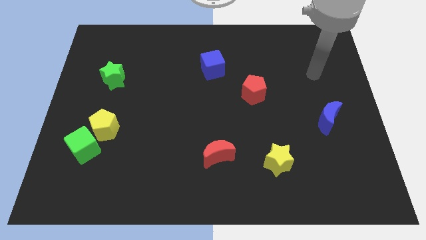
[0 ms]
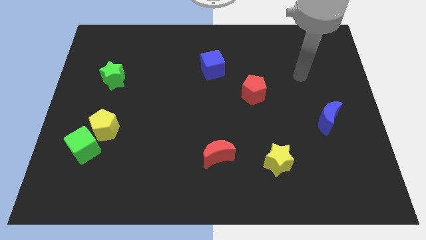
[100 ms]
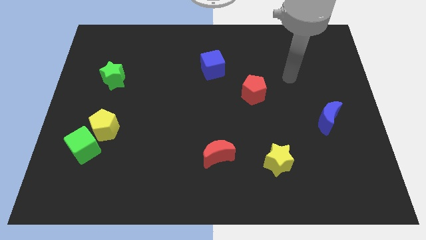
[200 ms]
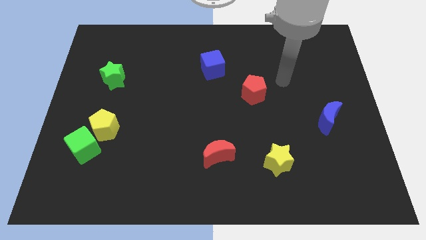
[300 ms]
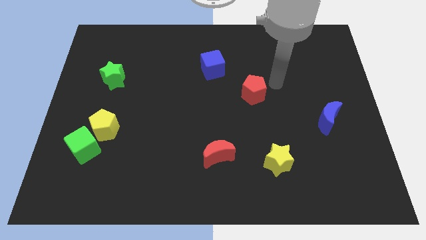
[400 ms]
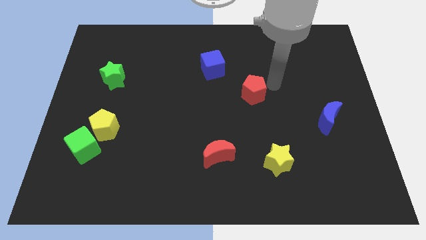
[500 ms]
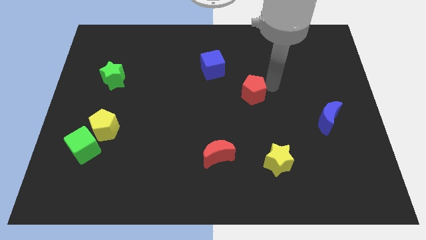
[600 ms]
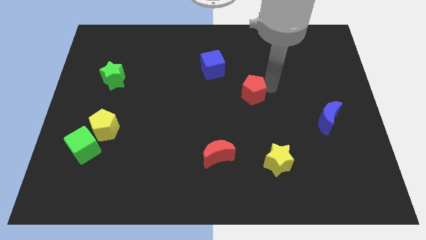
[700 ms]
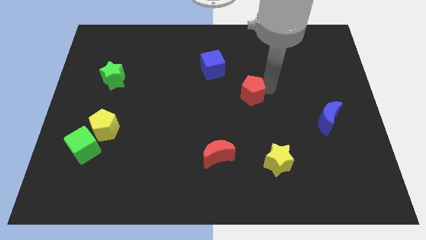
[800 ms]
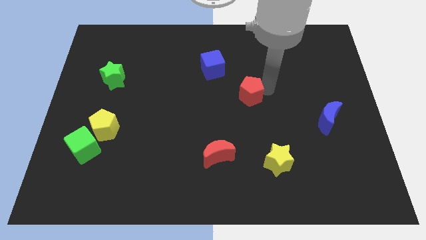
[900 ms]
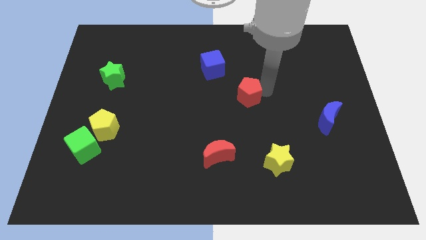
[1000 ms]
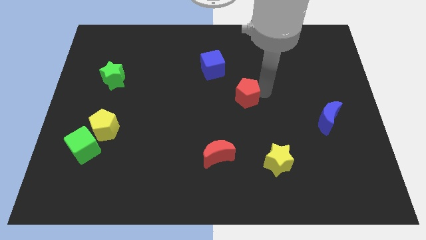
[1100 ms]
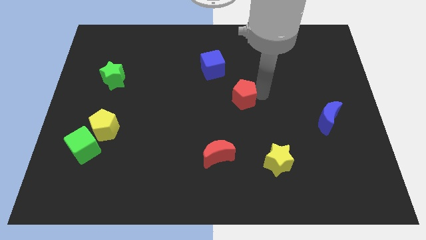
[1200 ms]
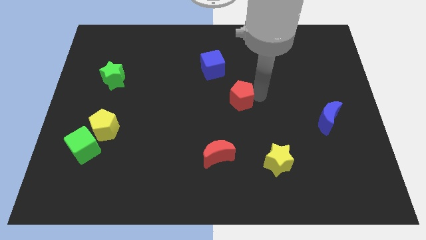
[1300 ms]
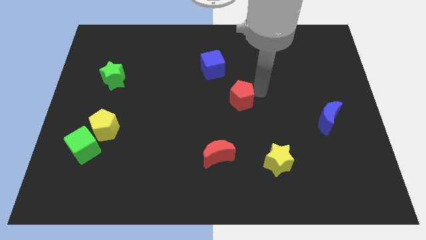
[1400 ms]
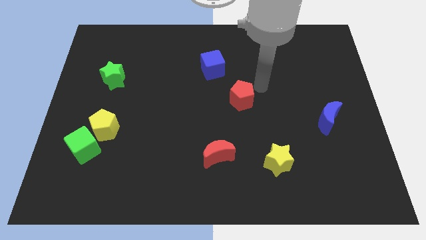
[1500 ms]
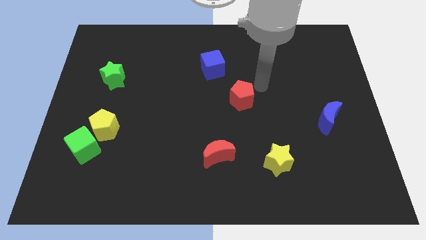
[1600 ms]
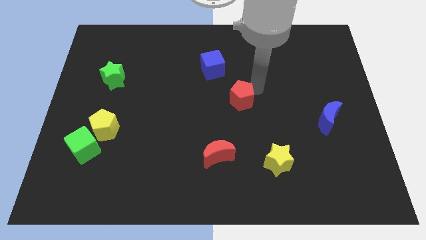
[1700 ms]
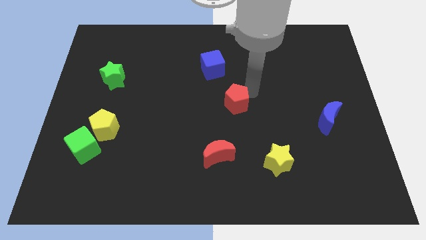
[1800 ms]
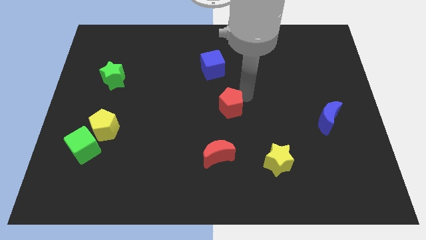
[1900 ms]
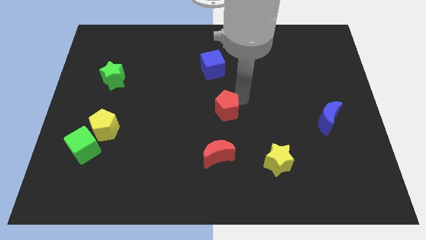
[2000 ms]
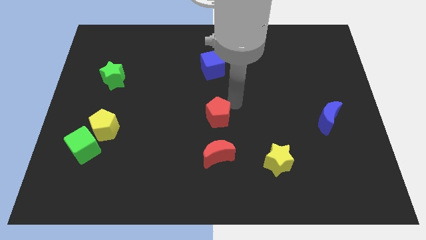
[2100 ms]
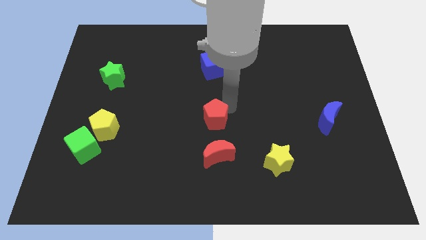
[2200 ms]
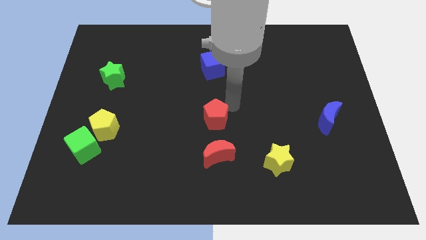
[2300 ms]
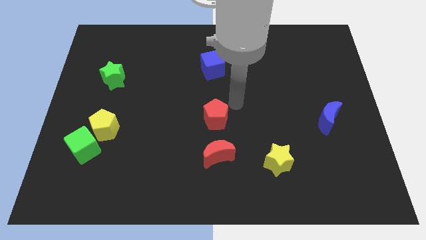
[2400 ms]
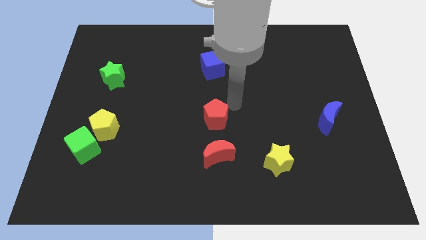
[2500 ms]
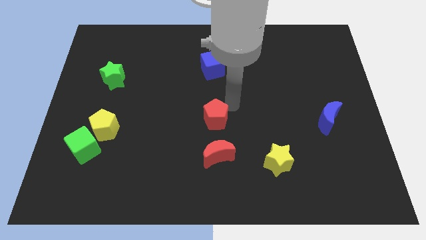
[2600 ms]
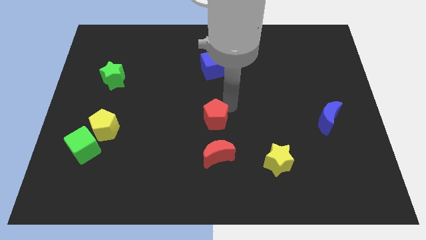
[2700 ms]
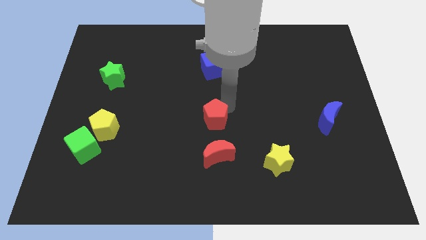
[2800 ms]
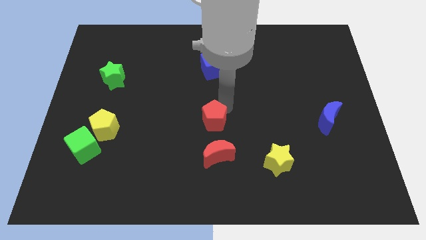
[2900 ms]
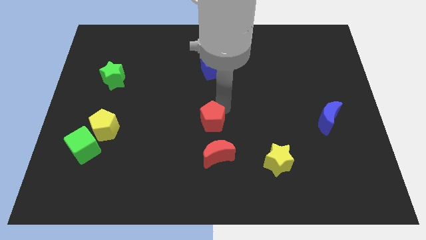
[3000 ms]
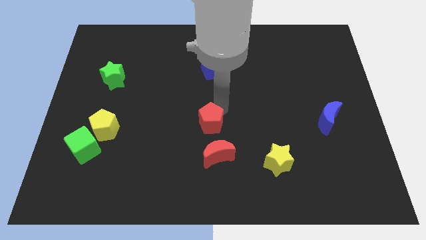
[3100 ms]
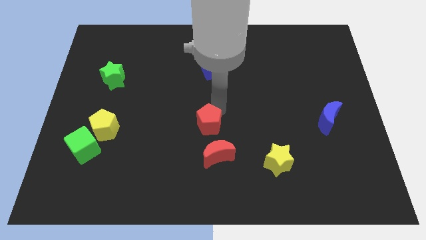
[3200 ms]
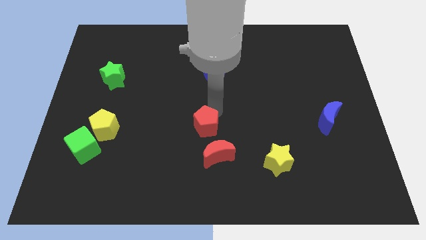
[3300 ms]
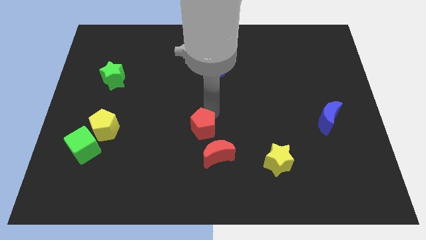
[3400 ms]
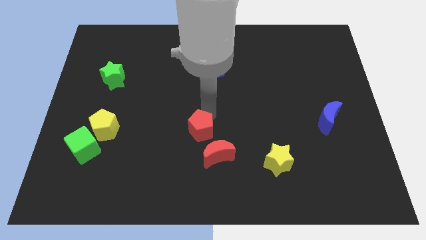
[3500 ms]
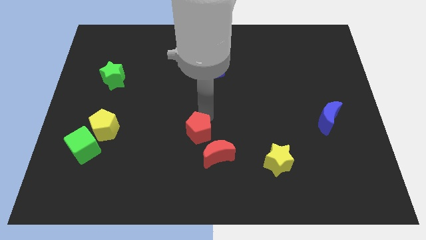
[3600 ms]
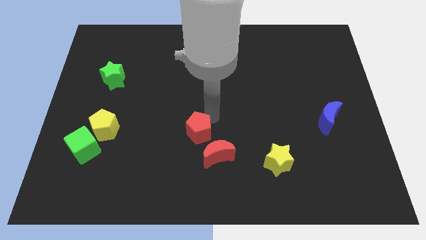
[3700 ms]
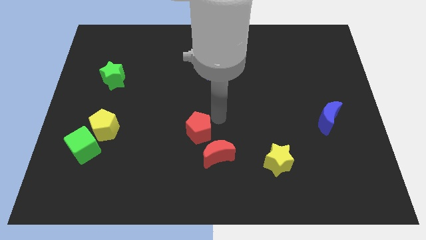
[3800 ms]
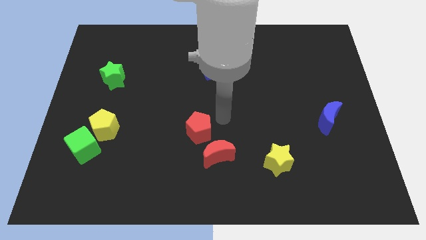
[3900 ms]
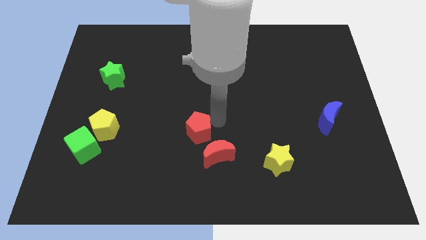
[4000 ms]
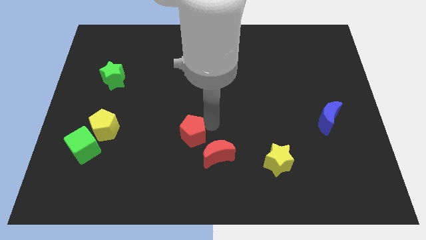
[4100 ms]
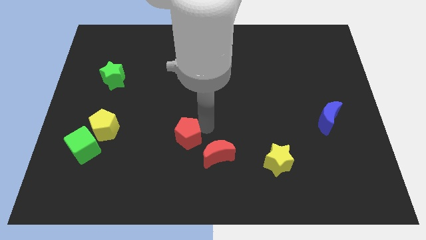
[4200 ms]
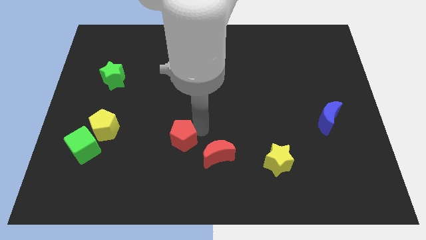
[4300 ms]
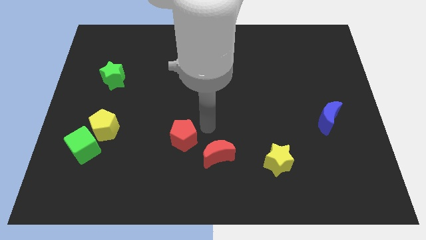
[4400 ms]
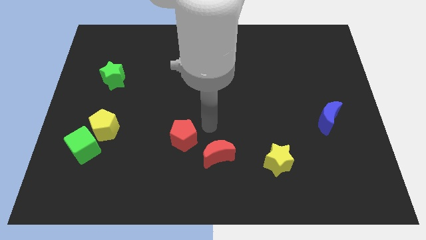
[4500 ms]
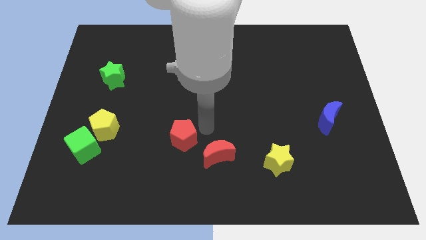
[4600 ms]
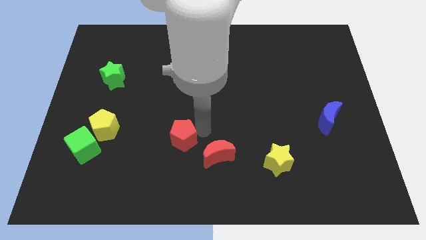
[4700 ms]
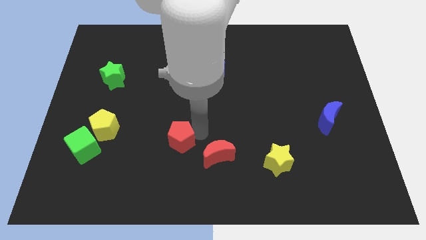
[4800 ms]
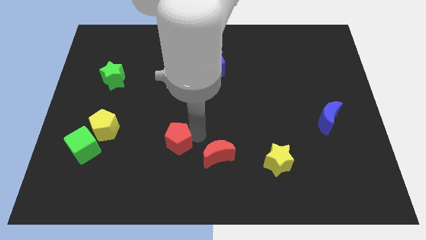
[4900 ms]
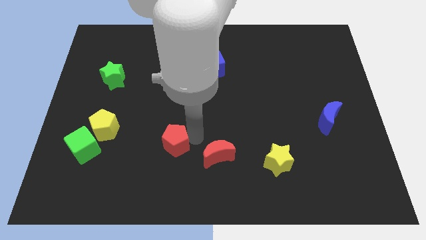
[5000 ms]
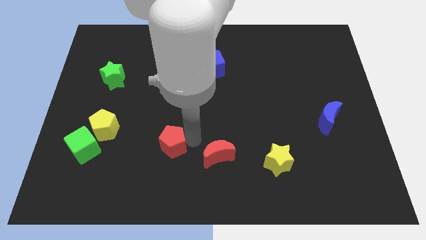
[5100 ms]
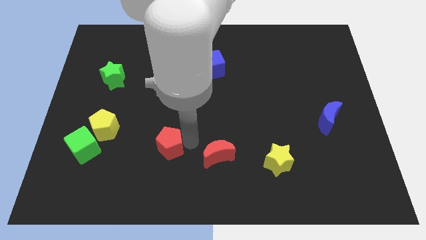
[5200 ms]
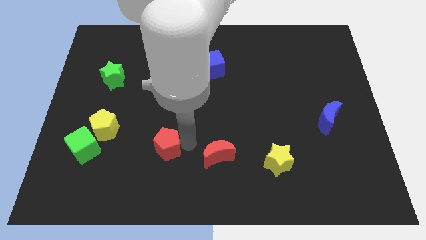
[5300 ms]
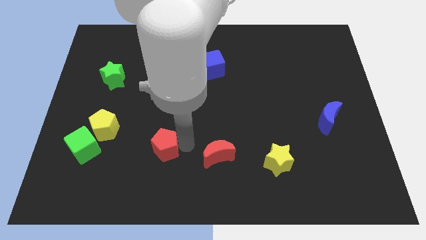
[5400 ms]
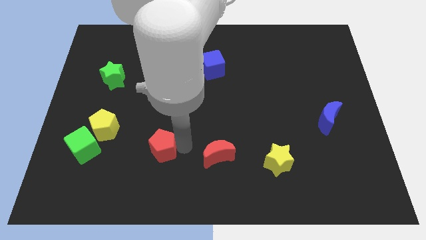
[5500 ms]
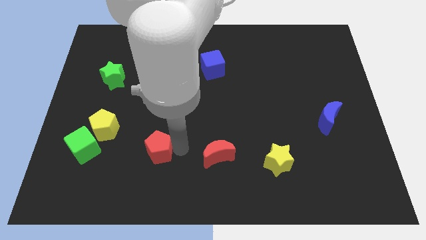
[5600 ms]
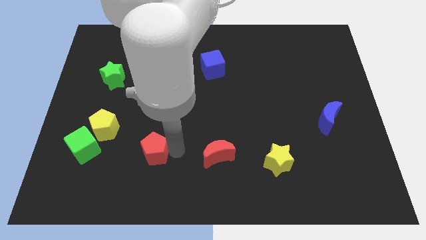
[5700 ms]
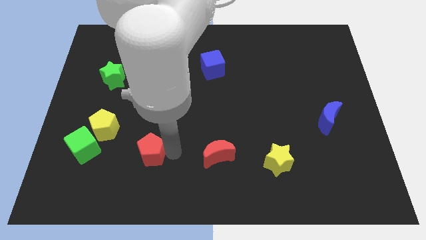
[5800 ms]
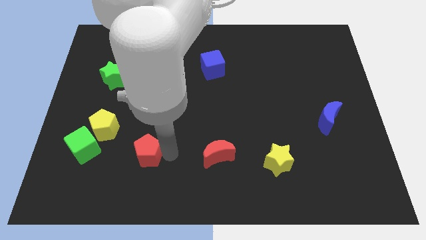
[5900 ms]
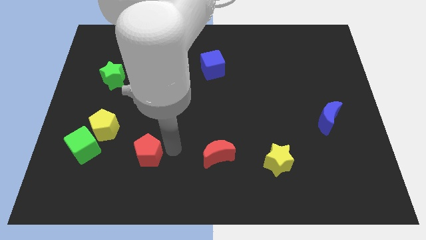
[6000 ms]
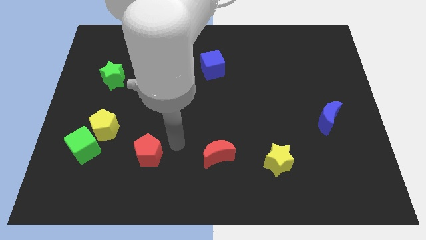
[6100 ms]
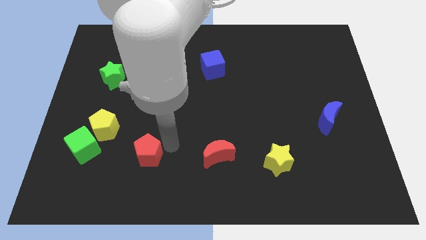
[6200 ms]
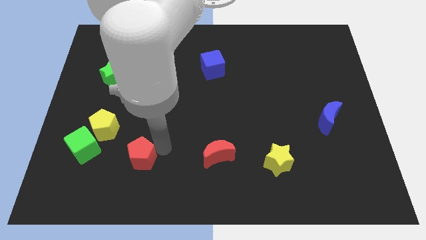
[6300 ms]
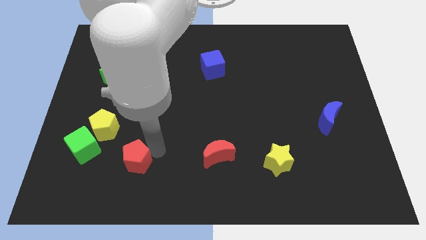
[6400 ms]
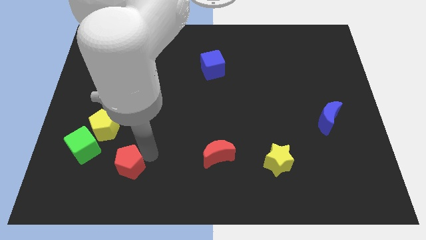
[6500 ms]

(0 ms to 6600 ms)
move the red pentagon to the bottom right of the green cube

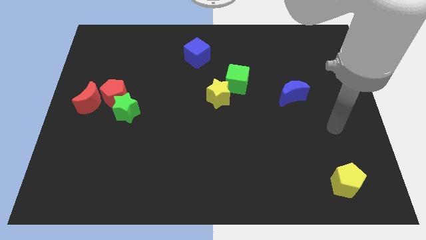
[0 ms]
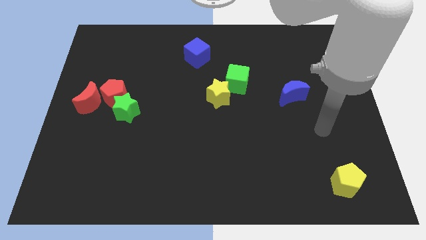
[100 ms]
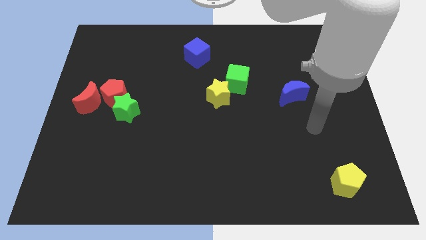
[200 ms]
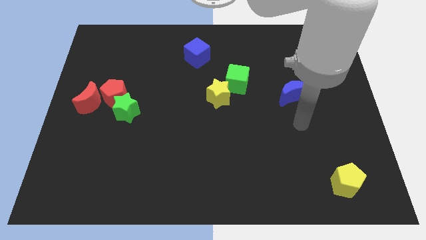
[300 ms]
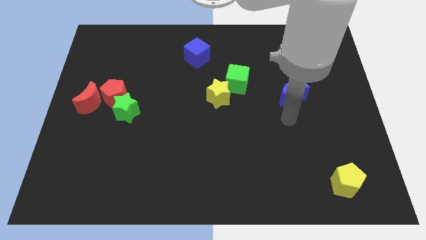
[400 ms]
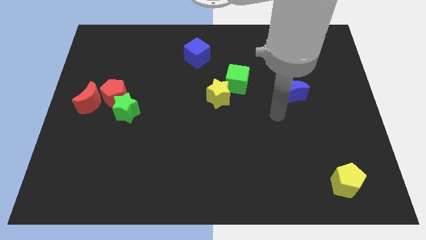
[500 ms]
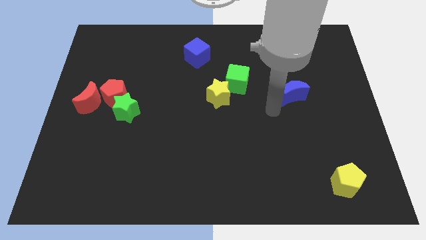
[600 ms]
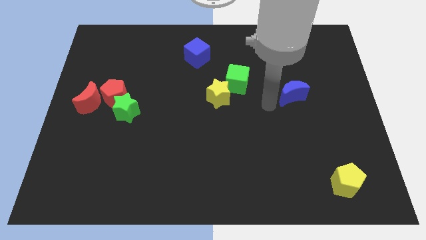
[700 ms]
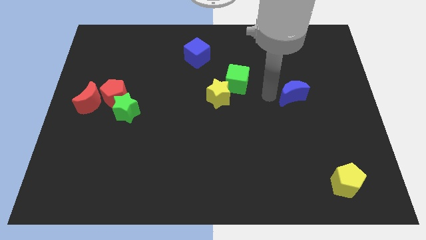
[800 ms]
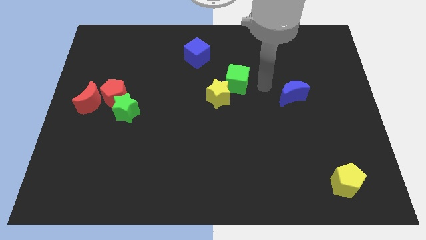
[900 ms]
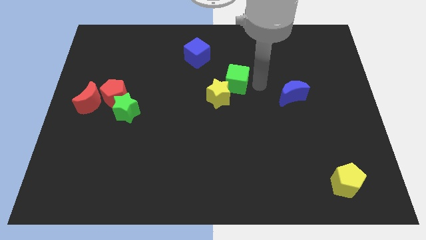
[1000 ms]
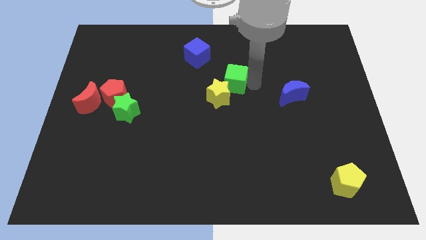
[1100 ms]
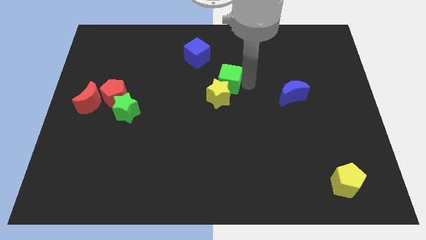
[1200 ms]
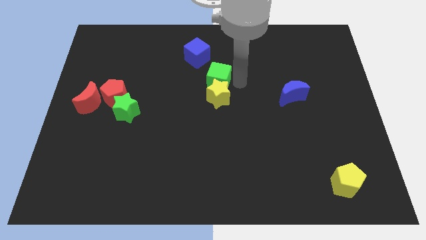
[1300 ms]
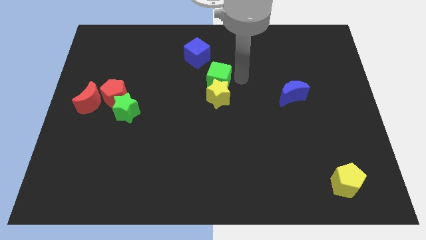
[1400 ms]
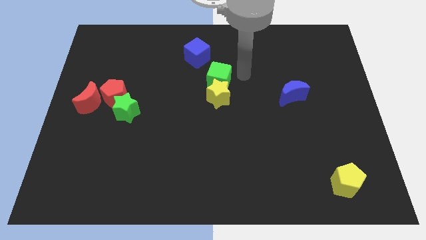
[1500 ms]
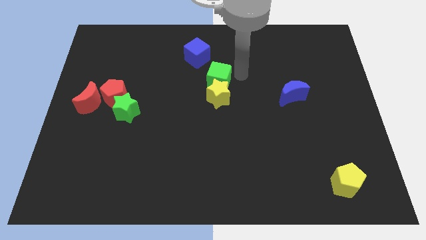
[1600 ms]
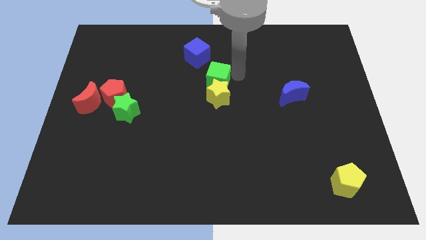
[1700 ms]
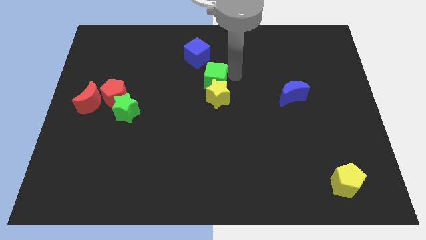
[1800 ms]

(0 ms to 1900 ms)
put the green cube to the bottom side of the blue cube
